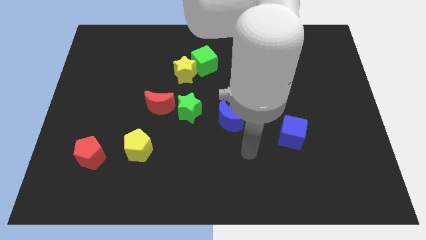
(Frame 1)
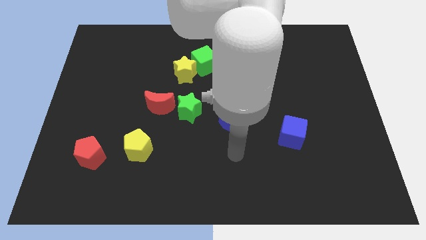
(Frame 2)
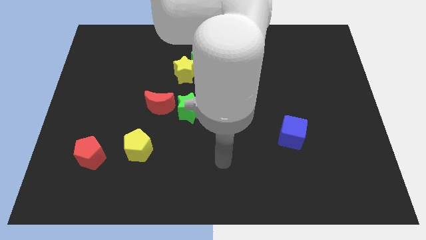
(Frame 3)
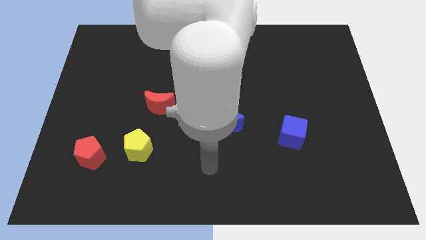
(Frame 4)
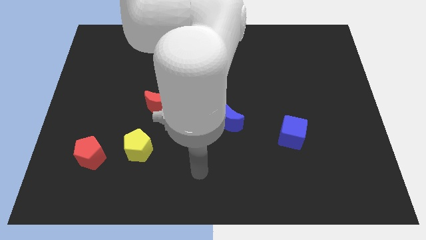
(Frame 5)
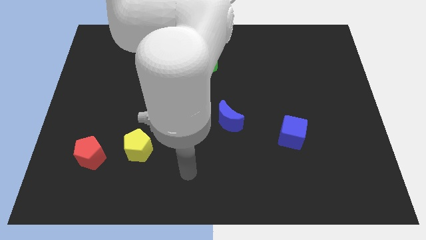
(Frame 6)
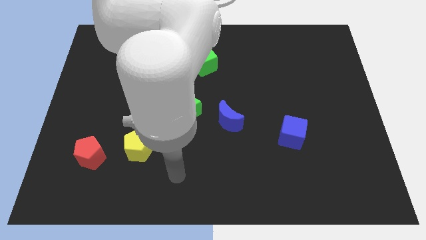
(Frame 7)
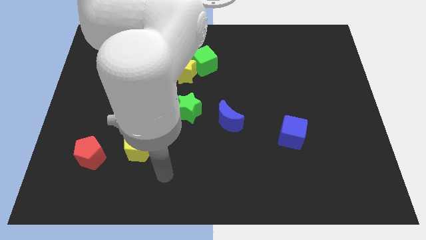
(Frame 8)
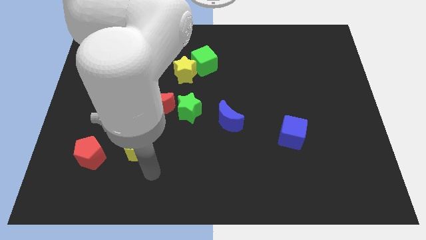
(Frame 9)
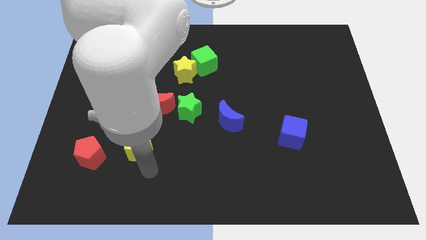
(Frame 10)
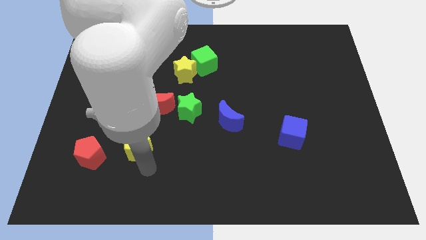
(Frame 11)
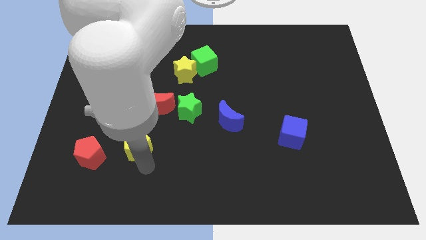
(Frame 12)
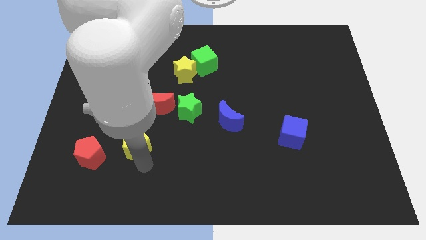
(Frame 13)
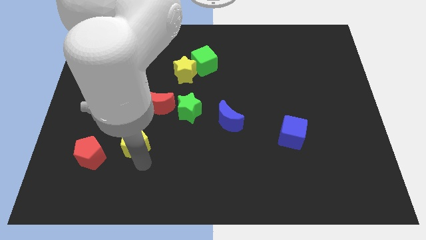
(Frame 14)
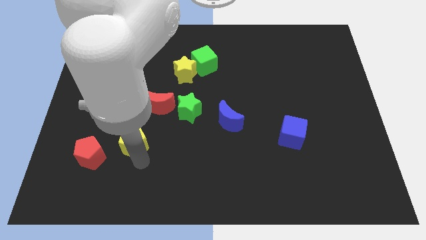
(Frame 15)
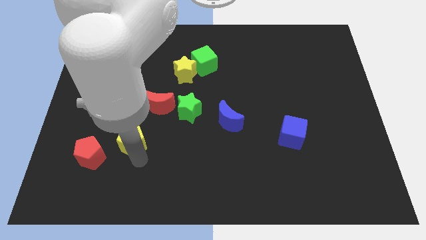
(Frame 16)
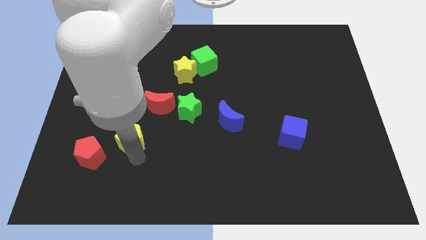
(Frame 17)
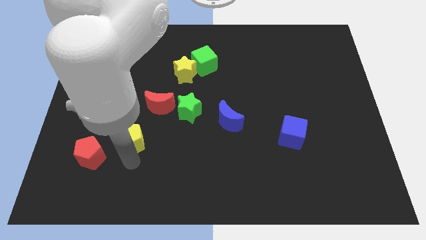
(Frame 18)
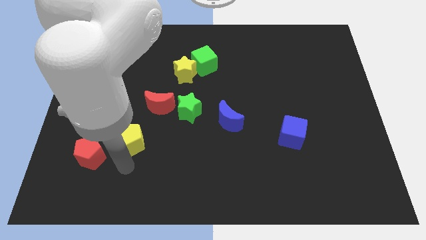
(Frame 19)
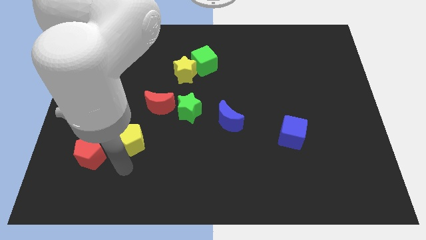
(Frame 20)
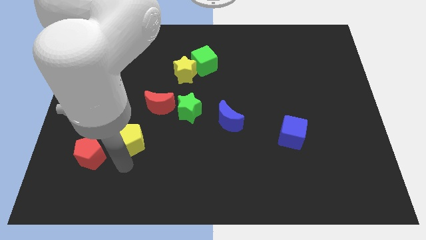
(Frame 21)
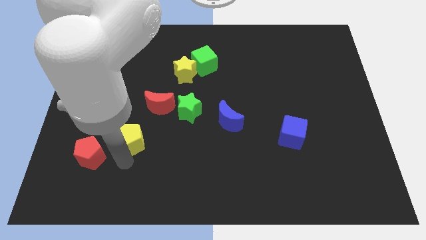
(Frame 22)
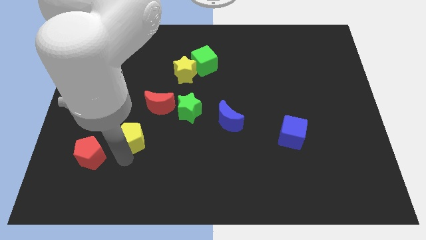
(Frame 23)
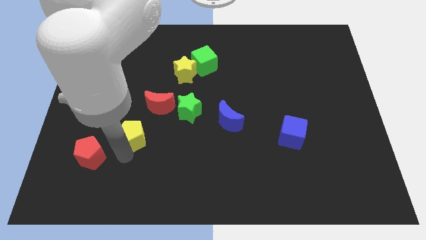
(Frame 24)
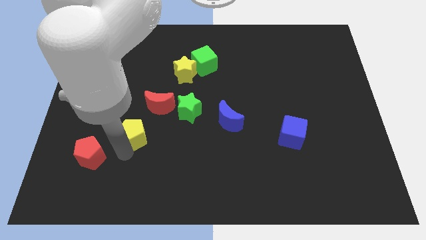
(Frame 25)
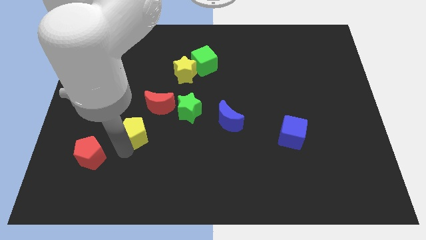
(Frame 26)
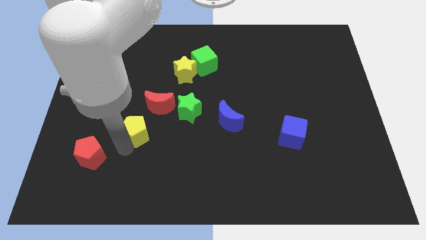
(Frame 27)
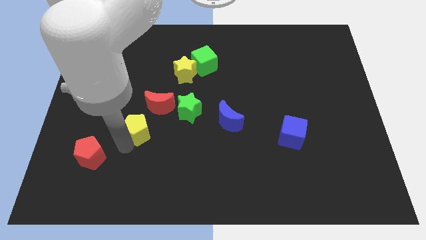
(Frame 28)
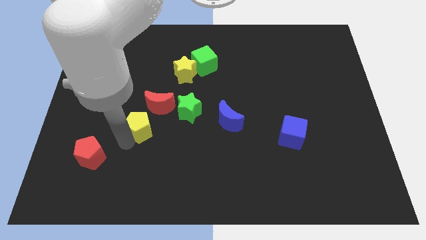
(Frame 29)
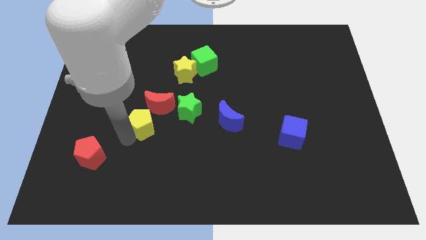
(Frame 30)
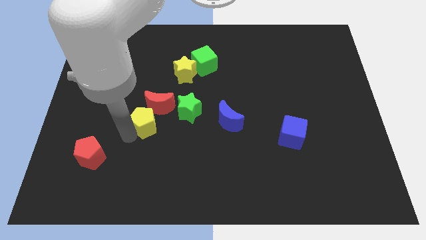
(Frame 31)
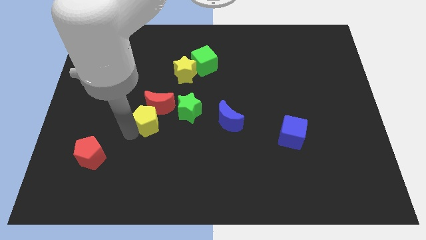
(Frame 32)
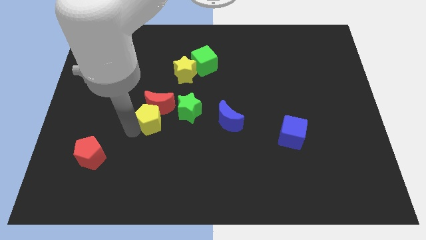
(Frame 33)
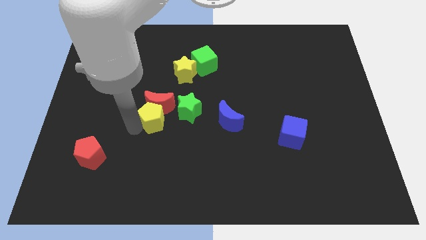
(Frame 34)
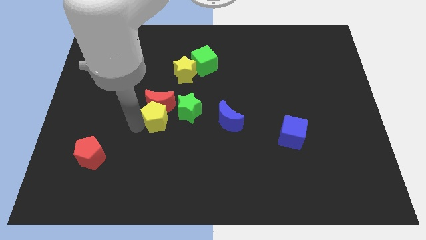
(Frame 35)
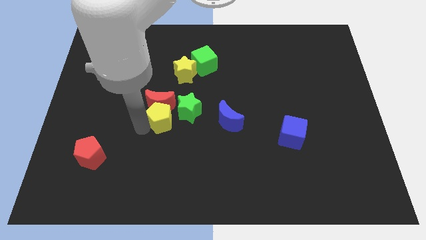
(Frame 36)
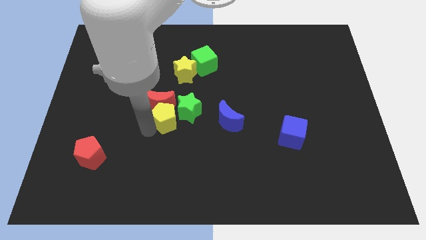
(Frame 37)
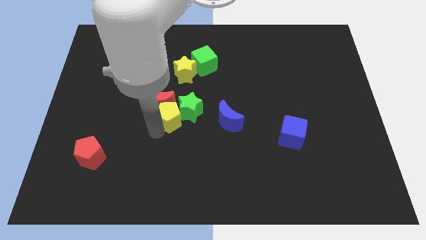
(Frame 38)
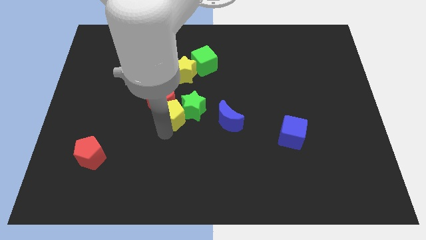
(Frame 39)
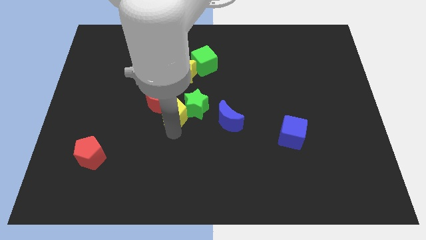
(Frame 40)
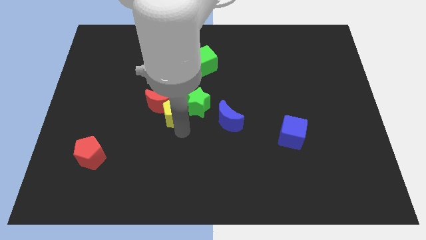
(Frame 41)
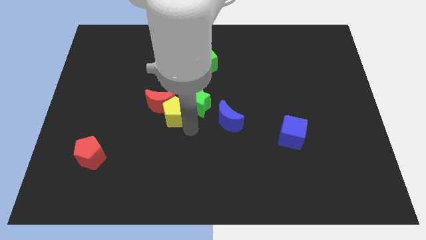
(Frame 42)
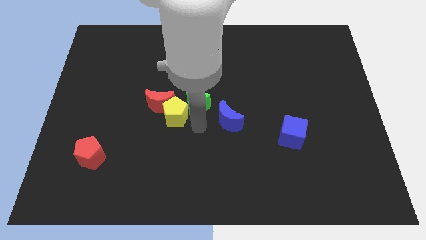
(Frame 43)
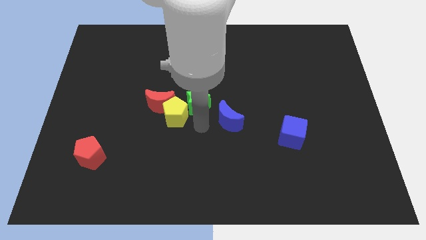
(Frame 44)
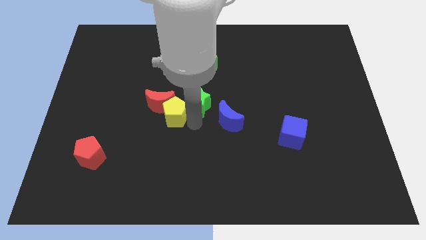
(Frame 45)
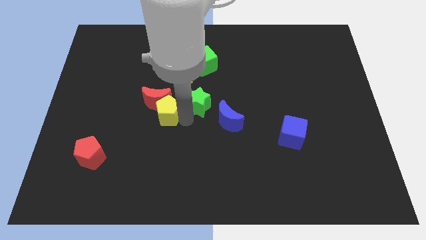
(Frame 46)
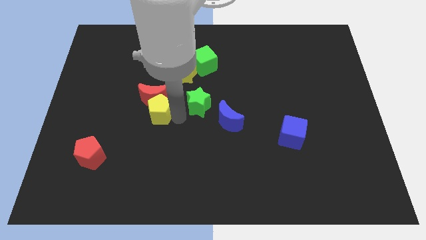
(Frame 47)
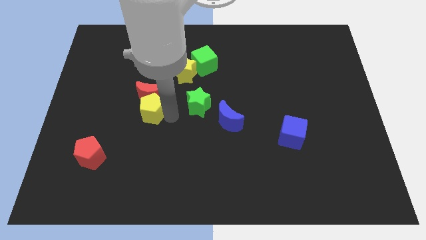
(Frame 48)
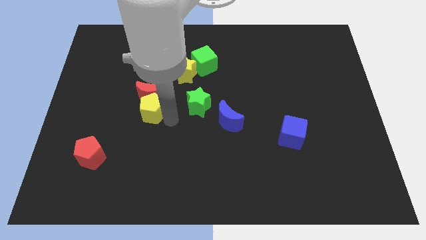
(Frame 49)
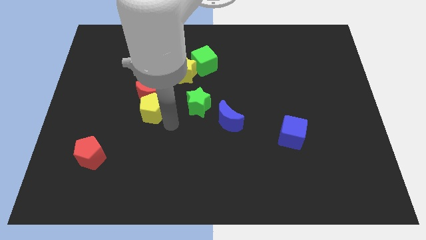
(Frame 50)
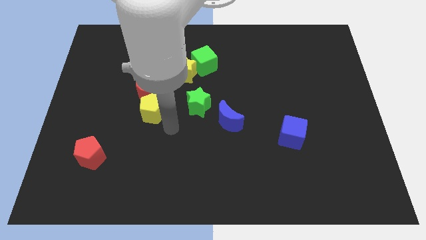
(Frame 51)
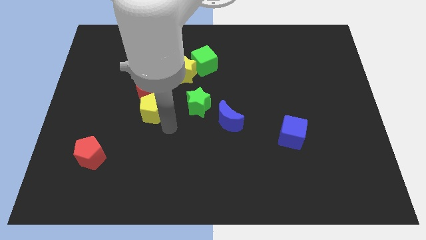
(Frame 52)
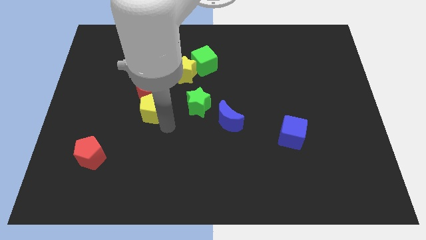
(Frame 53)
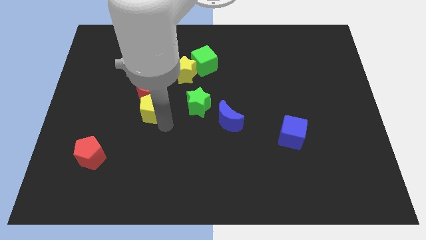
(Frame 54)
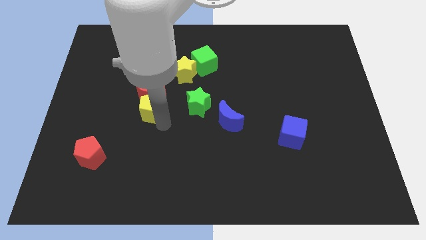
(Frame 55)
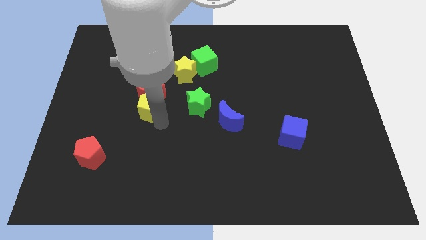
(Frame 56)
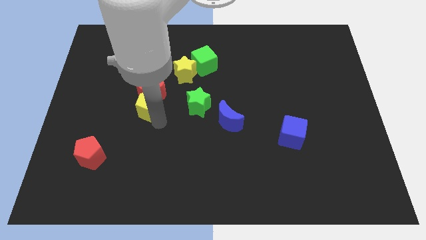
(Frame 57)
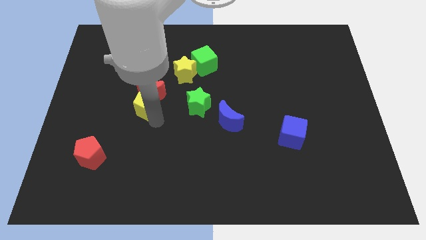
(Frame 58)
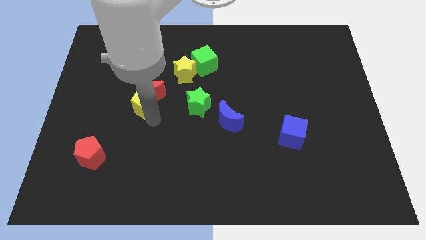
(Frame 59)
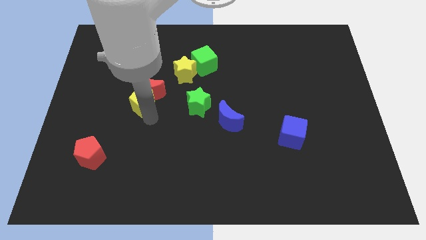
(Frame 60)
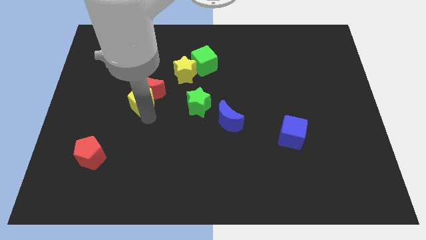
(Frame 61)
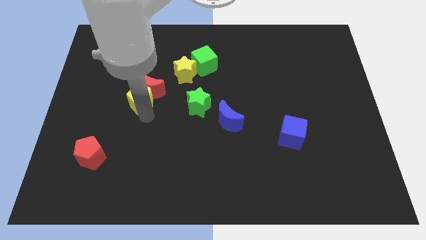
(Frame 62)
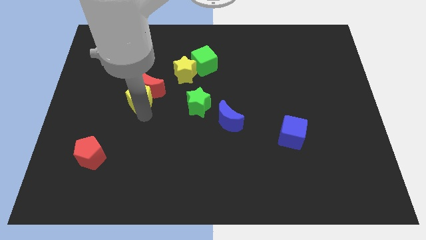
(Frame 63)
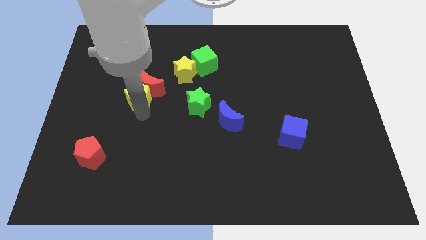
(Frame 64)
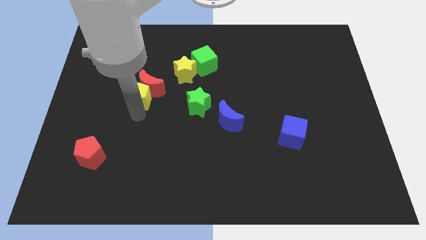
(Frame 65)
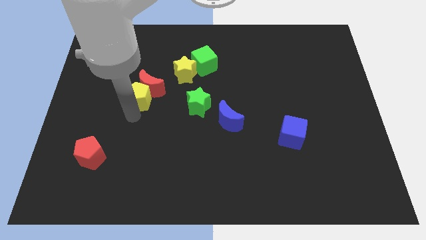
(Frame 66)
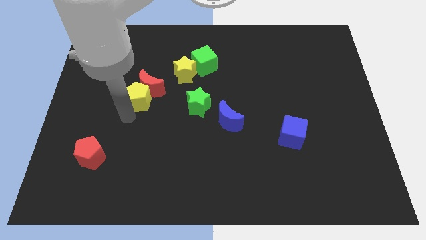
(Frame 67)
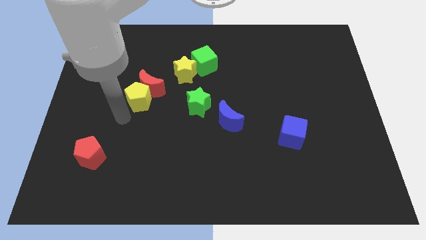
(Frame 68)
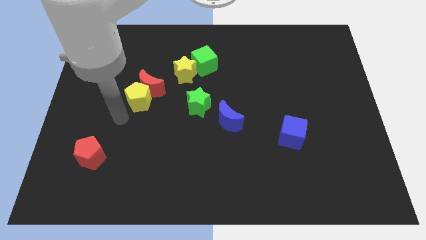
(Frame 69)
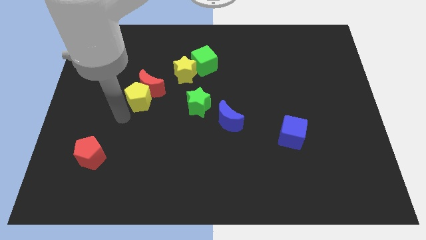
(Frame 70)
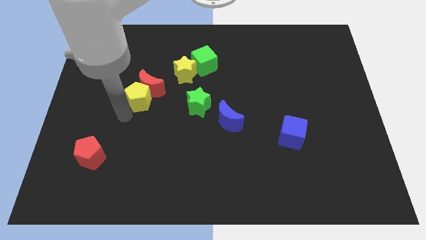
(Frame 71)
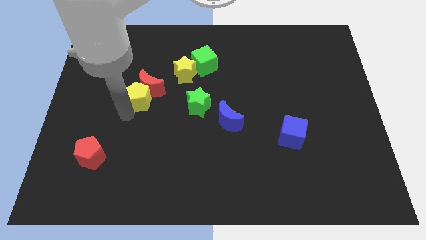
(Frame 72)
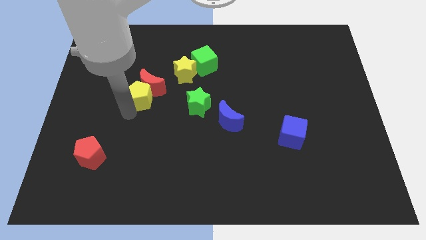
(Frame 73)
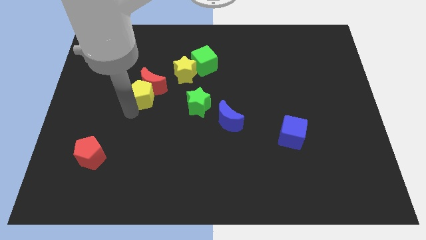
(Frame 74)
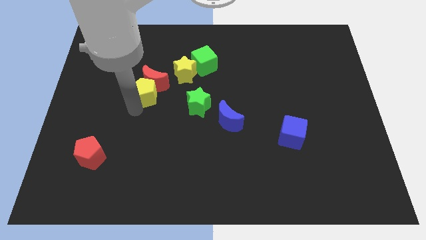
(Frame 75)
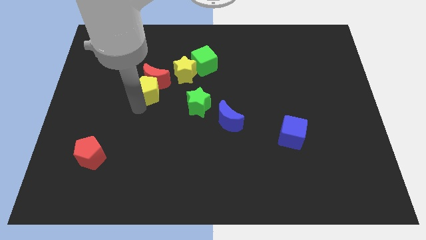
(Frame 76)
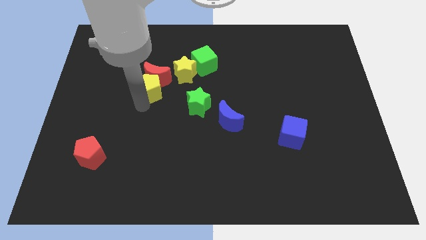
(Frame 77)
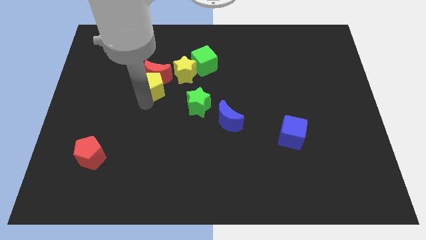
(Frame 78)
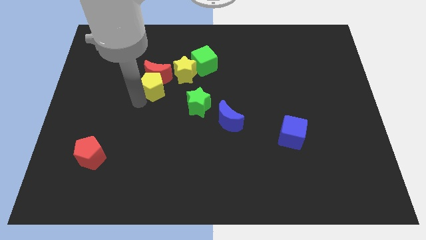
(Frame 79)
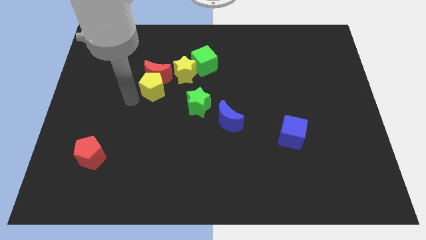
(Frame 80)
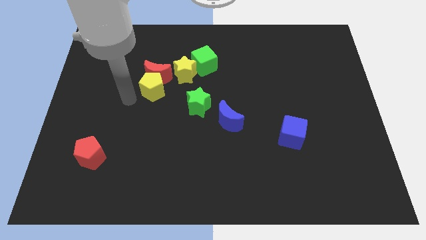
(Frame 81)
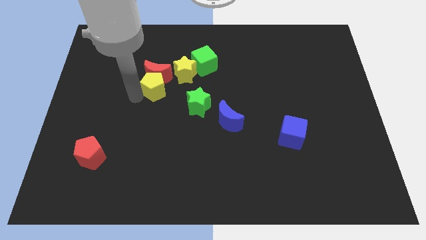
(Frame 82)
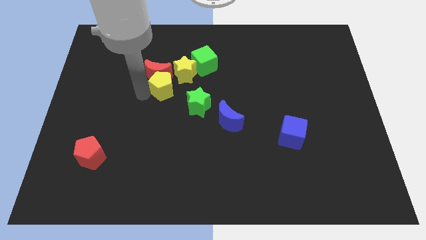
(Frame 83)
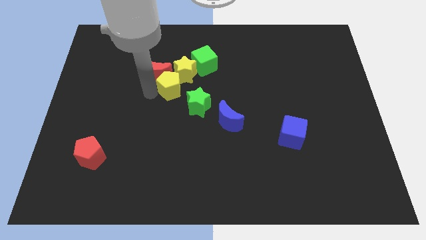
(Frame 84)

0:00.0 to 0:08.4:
move the yellow pentagon diagonally down and to the left of the green cube
